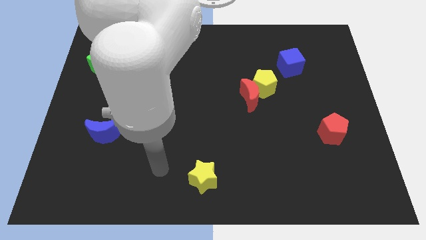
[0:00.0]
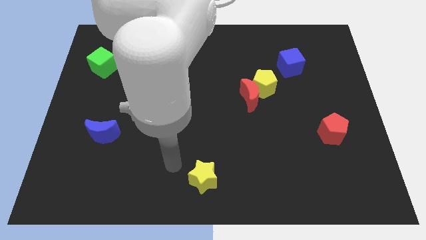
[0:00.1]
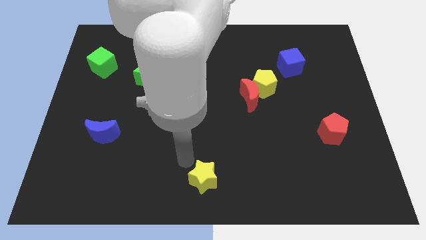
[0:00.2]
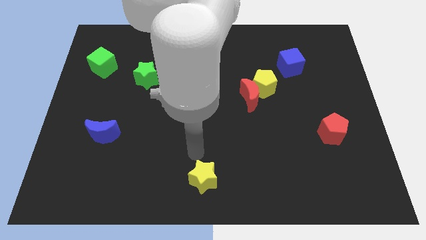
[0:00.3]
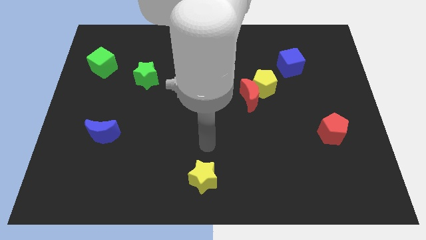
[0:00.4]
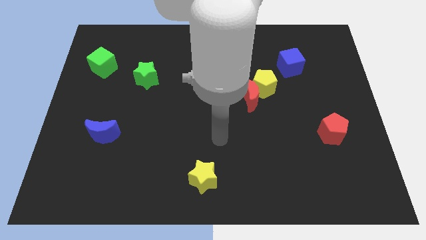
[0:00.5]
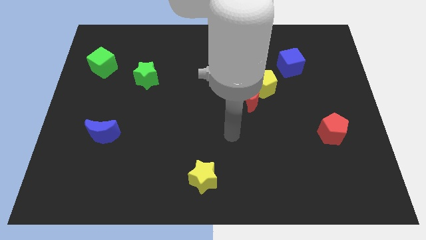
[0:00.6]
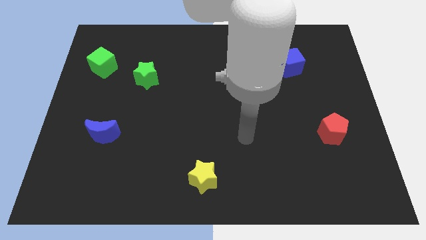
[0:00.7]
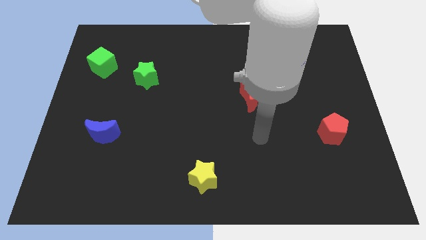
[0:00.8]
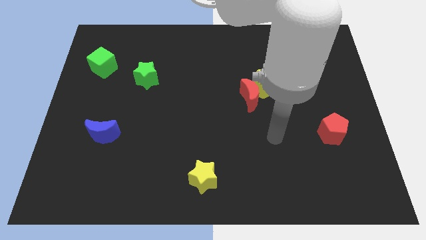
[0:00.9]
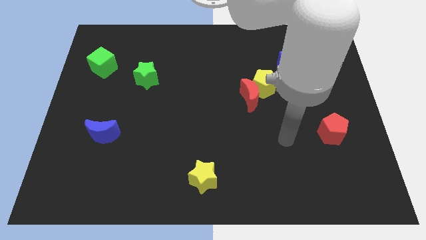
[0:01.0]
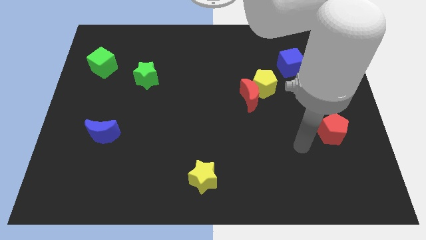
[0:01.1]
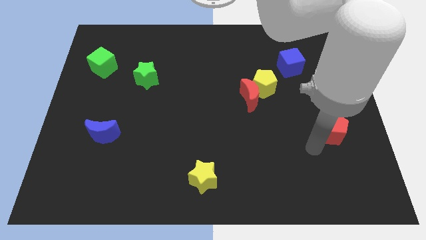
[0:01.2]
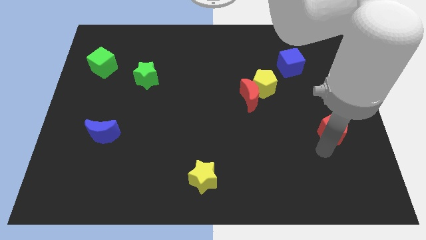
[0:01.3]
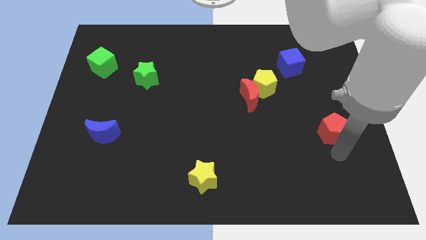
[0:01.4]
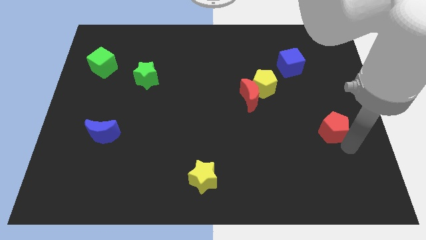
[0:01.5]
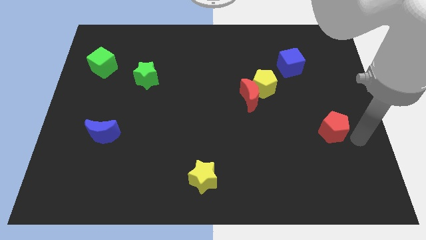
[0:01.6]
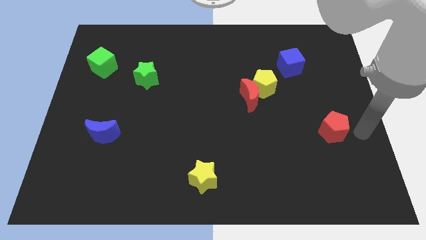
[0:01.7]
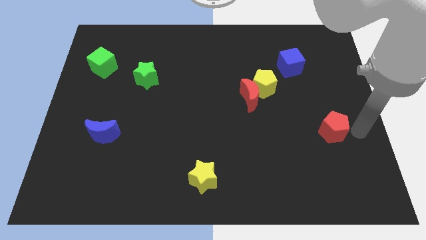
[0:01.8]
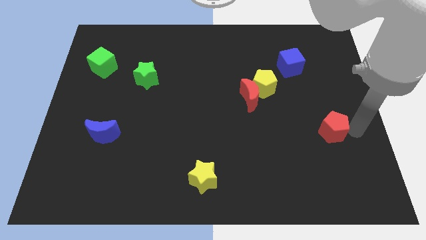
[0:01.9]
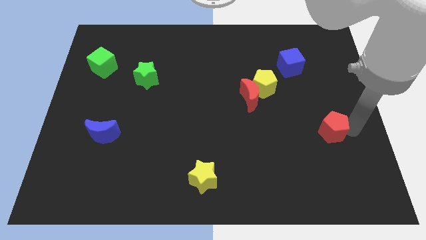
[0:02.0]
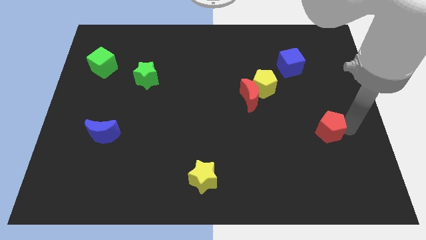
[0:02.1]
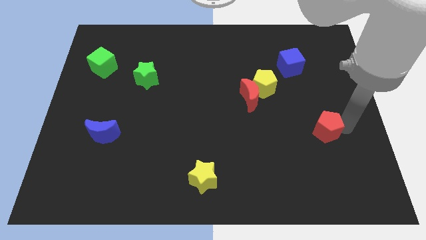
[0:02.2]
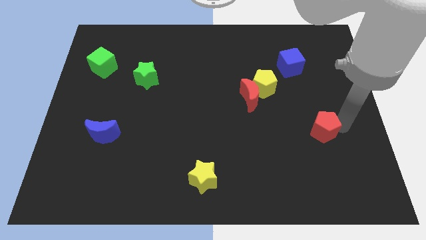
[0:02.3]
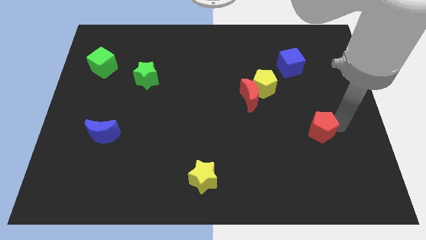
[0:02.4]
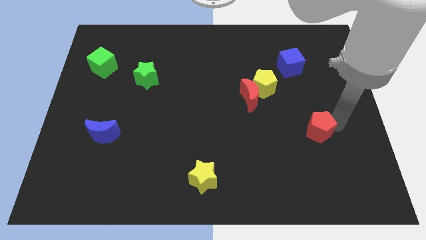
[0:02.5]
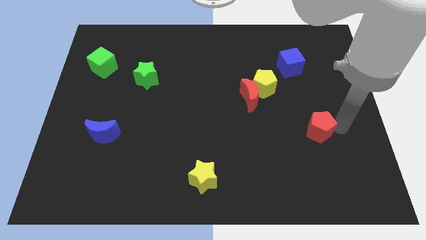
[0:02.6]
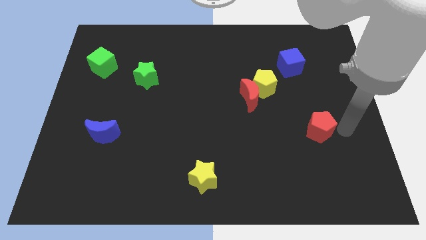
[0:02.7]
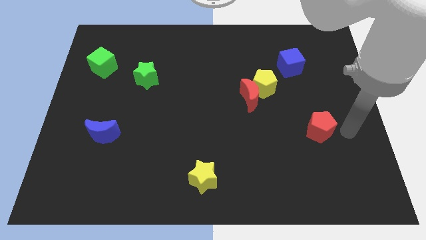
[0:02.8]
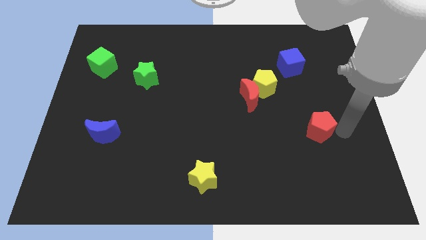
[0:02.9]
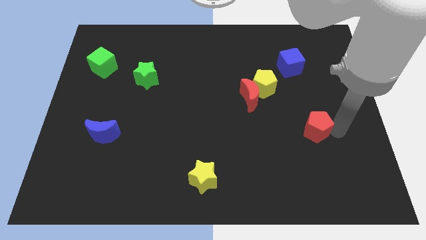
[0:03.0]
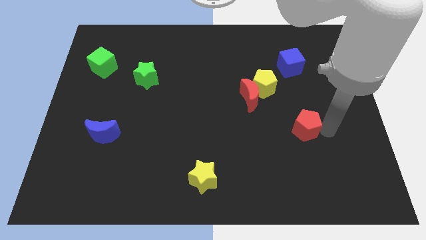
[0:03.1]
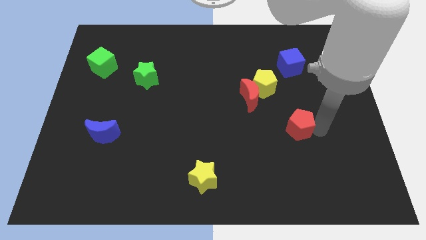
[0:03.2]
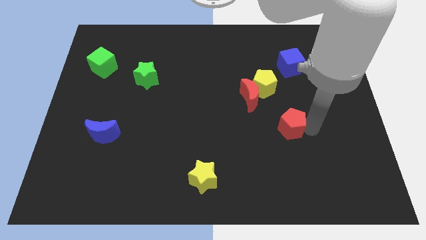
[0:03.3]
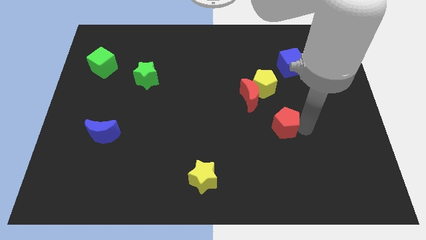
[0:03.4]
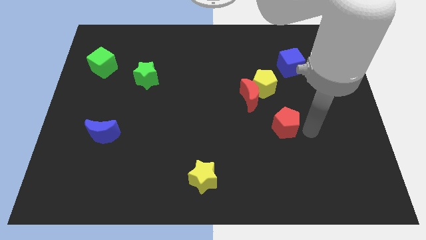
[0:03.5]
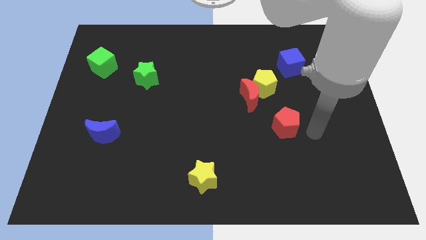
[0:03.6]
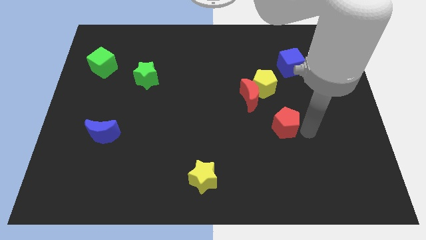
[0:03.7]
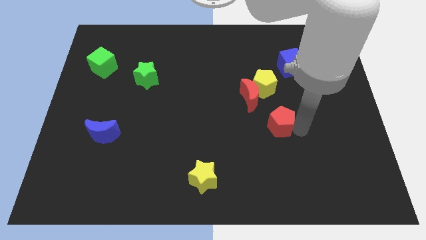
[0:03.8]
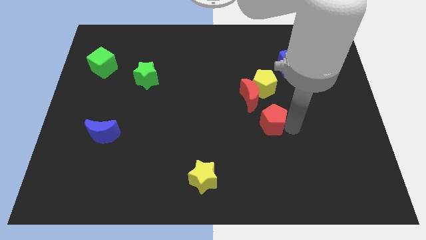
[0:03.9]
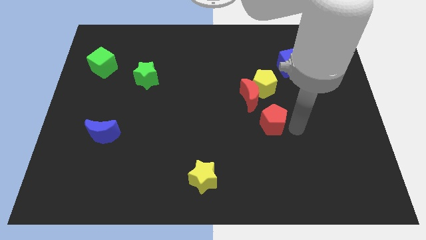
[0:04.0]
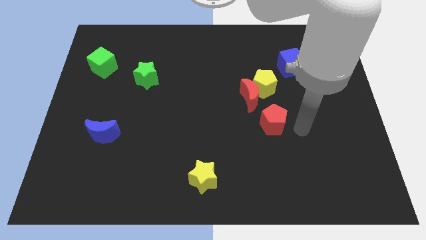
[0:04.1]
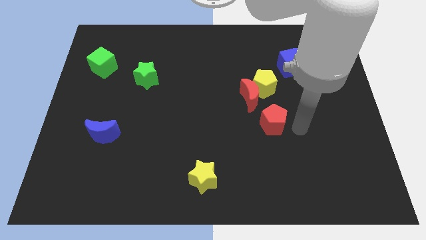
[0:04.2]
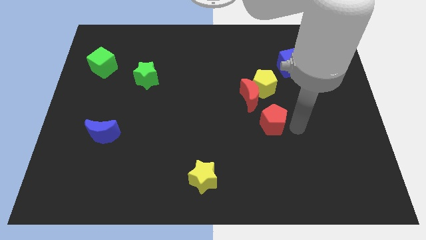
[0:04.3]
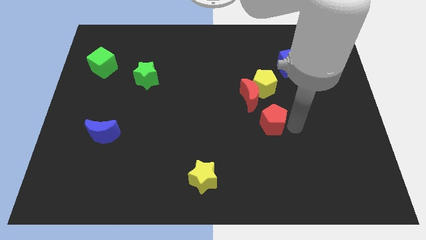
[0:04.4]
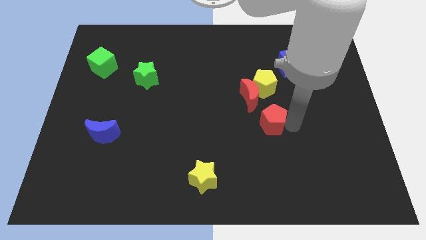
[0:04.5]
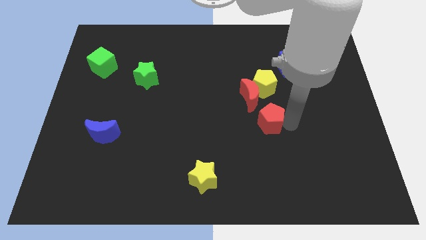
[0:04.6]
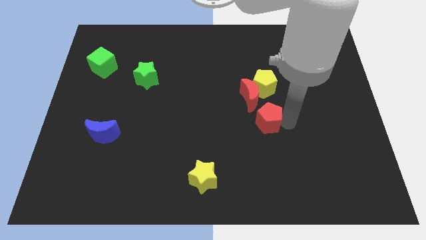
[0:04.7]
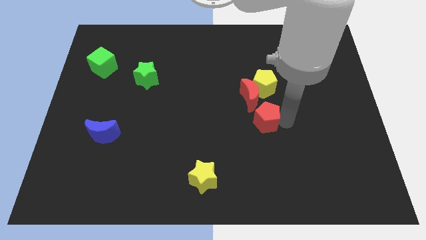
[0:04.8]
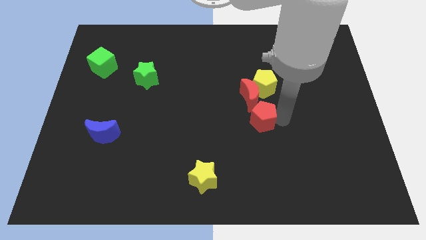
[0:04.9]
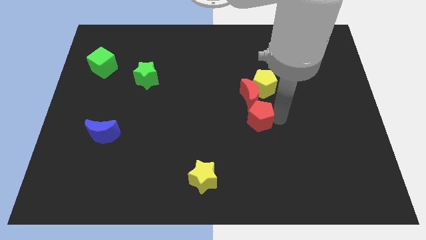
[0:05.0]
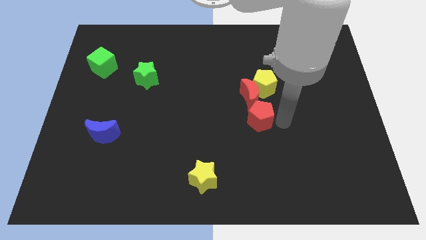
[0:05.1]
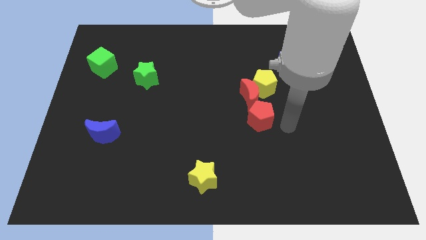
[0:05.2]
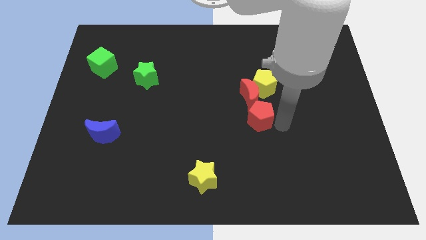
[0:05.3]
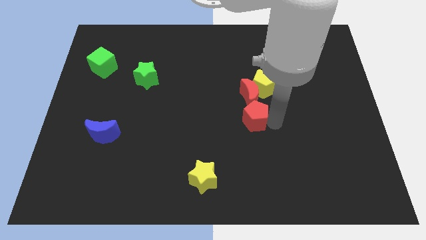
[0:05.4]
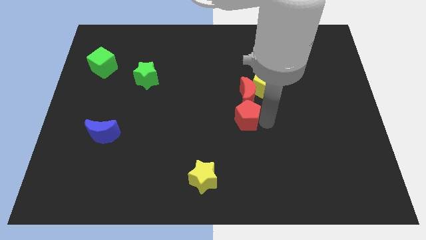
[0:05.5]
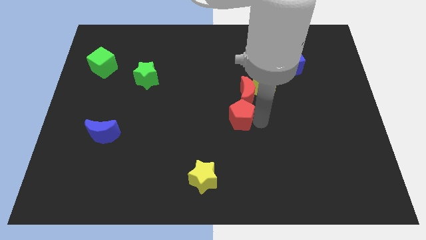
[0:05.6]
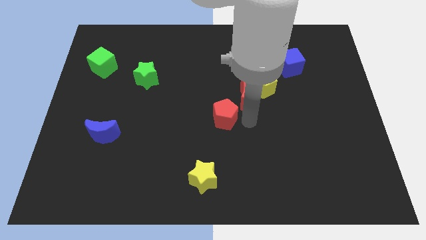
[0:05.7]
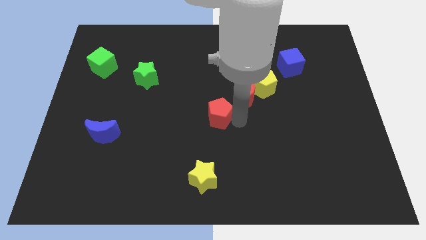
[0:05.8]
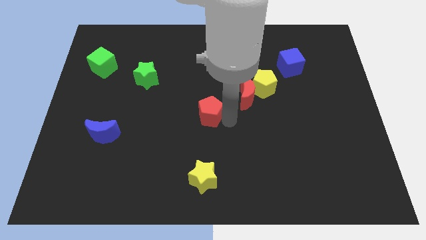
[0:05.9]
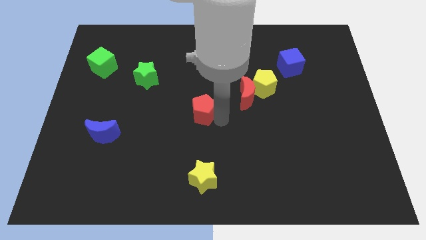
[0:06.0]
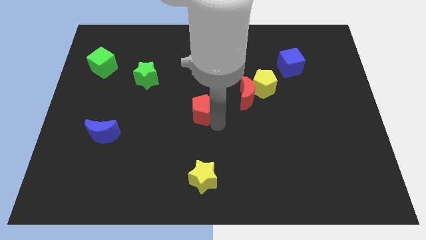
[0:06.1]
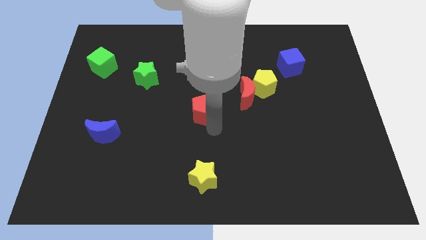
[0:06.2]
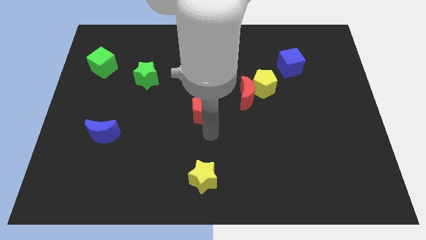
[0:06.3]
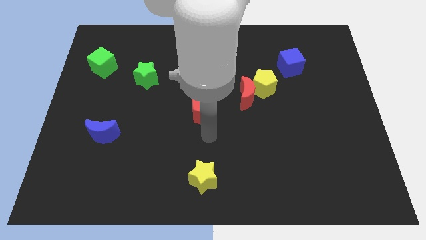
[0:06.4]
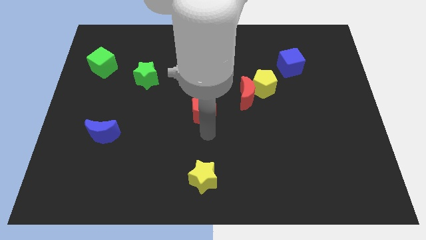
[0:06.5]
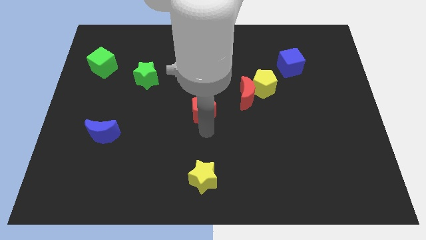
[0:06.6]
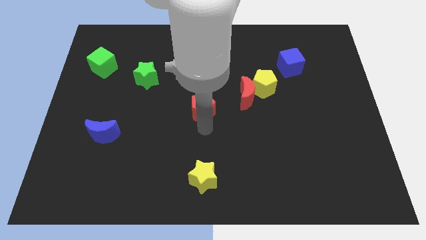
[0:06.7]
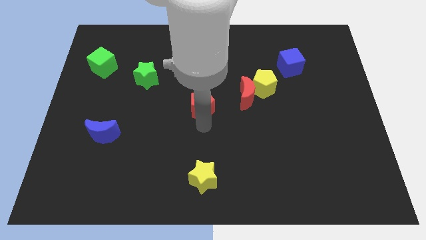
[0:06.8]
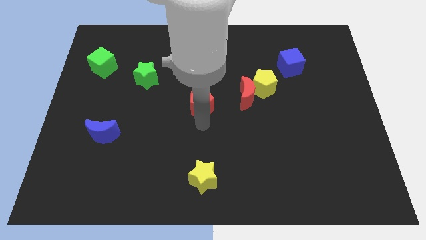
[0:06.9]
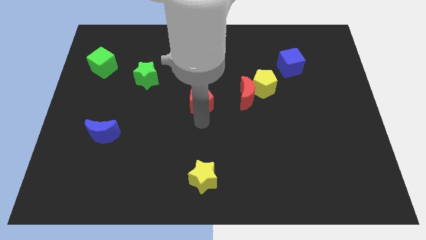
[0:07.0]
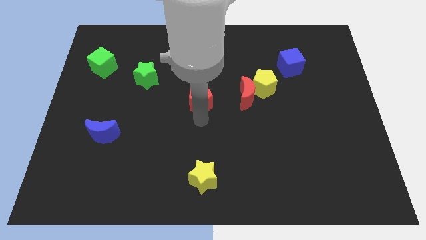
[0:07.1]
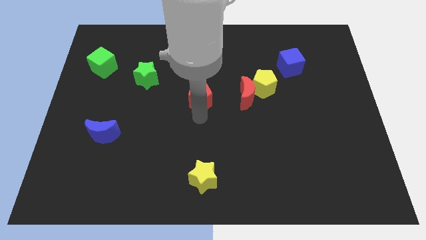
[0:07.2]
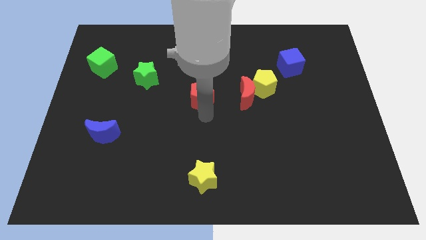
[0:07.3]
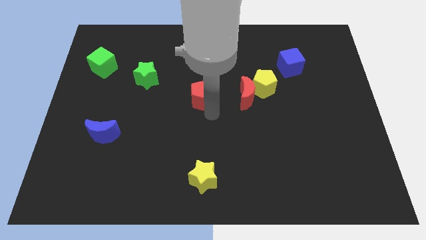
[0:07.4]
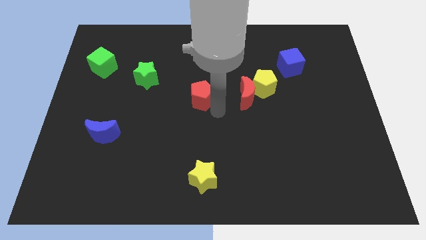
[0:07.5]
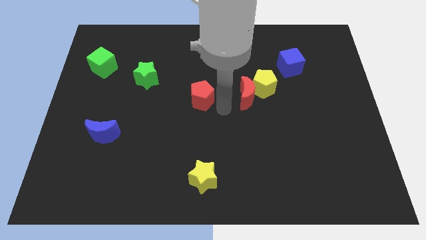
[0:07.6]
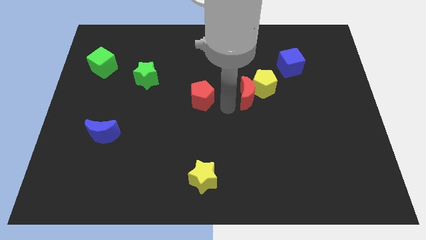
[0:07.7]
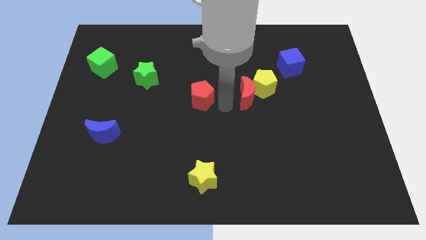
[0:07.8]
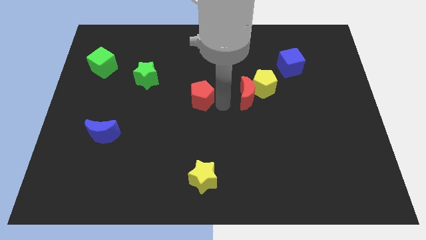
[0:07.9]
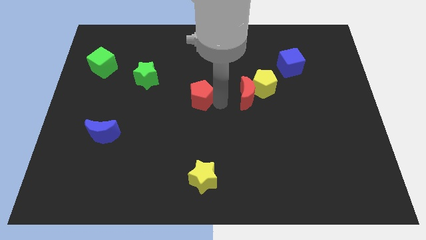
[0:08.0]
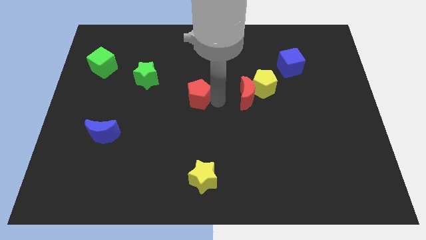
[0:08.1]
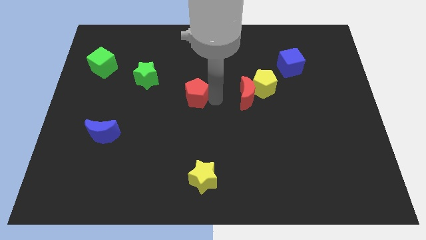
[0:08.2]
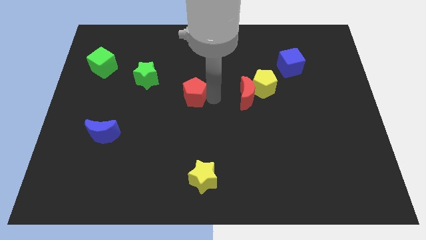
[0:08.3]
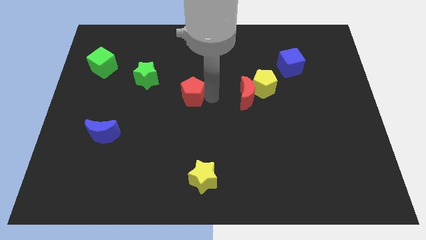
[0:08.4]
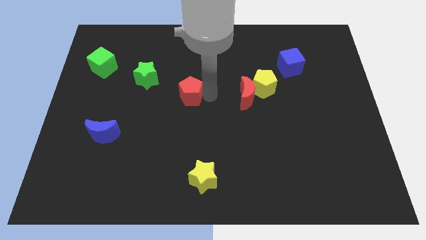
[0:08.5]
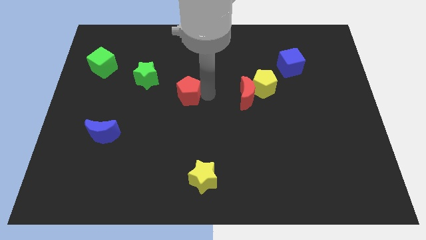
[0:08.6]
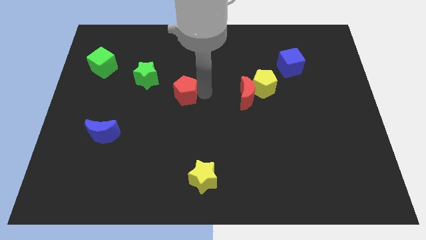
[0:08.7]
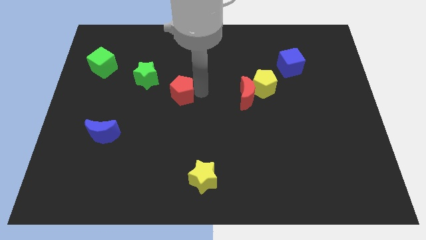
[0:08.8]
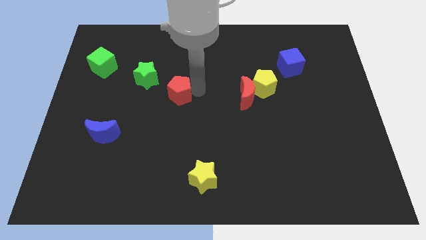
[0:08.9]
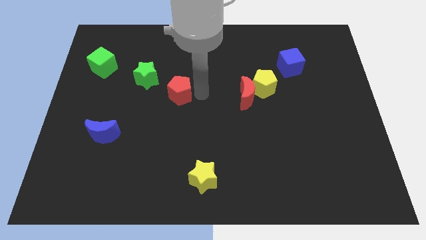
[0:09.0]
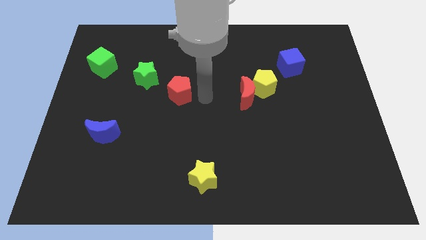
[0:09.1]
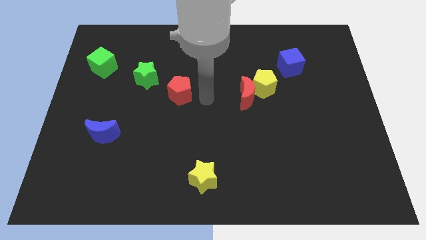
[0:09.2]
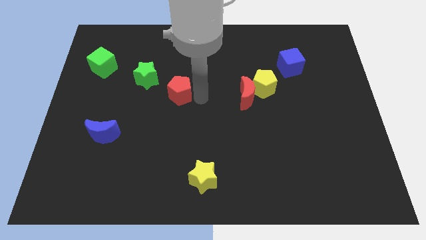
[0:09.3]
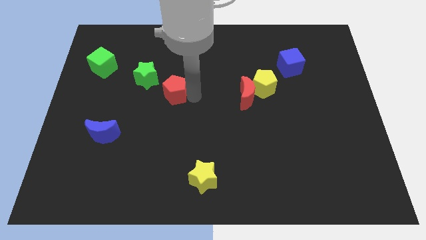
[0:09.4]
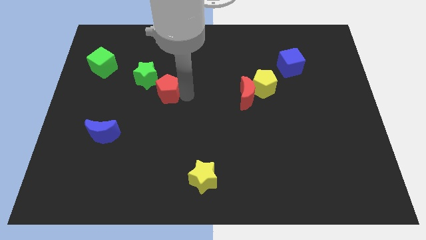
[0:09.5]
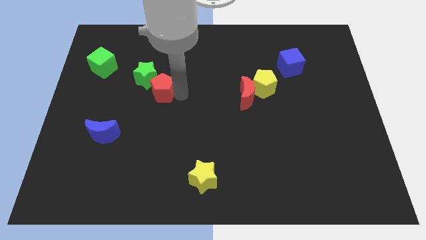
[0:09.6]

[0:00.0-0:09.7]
slide the red pentagon next to the green star
